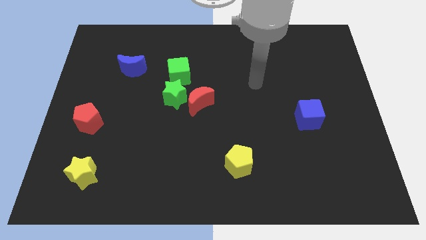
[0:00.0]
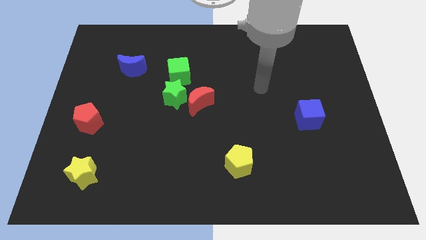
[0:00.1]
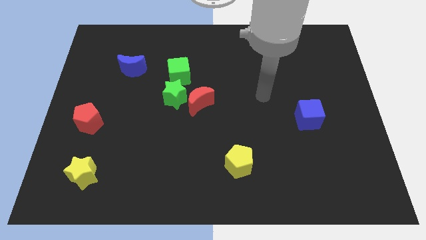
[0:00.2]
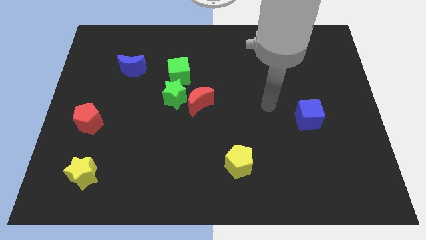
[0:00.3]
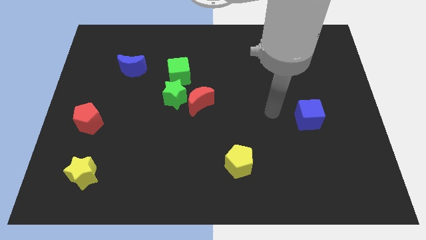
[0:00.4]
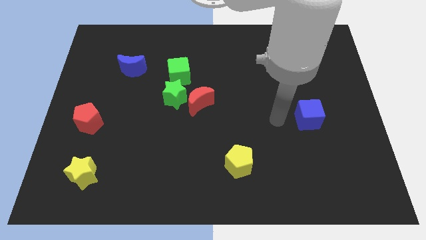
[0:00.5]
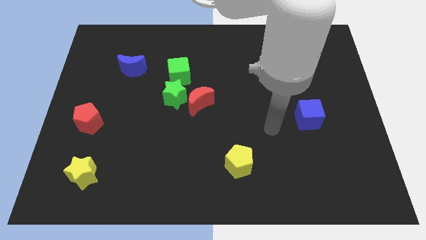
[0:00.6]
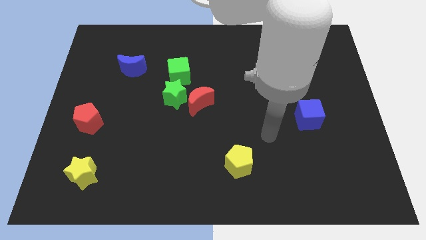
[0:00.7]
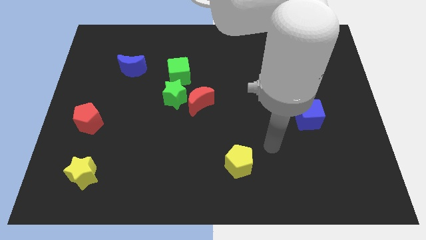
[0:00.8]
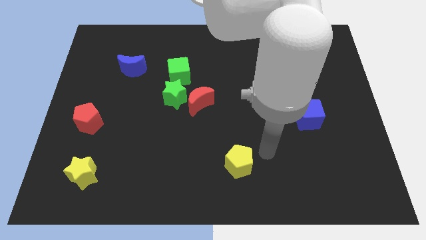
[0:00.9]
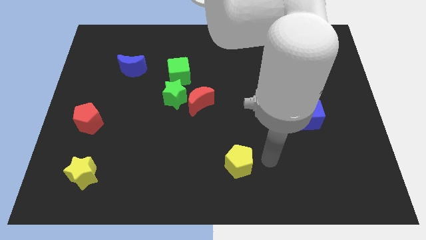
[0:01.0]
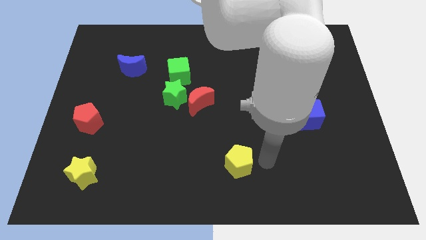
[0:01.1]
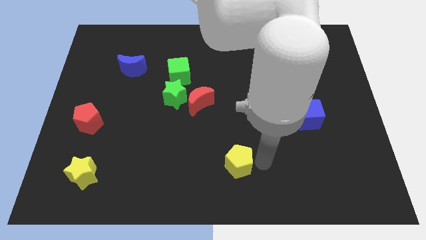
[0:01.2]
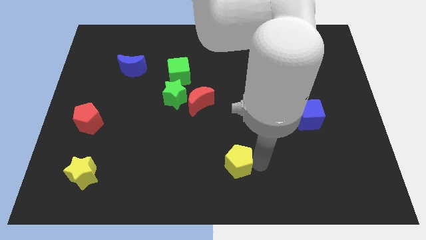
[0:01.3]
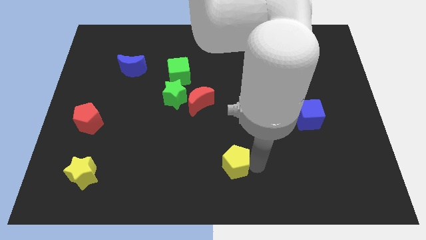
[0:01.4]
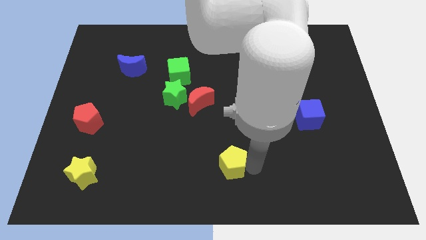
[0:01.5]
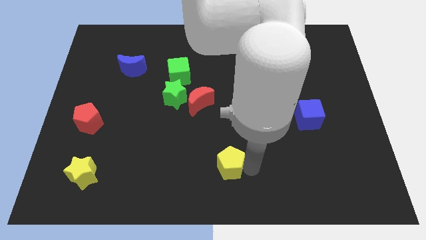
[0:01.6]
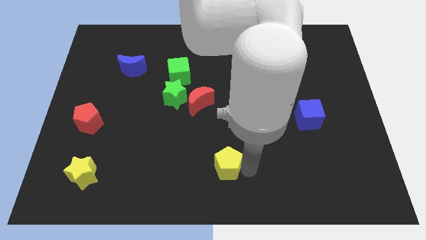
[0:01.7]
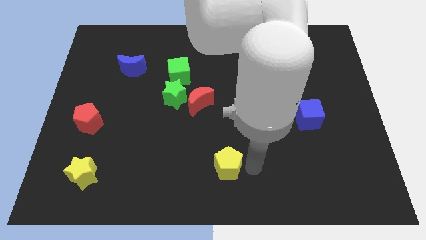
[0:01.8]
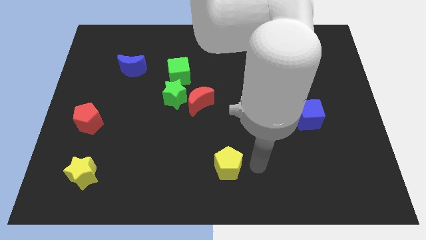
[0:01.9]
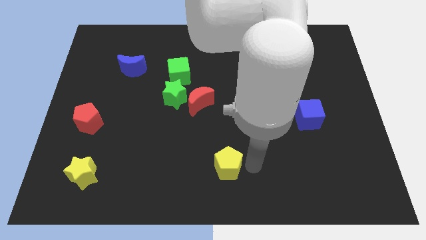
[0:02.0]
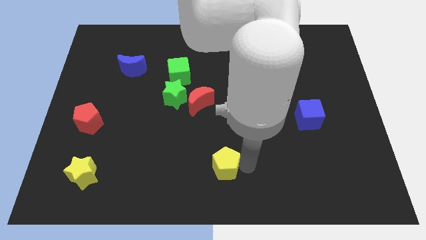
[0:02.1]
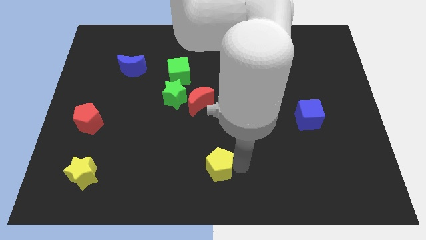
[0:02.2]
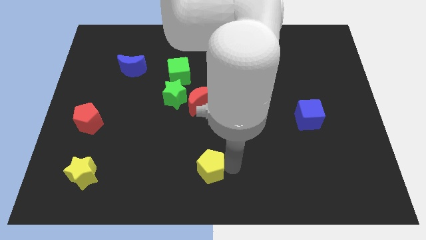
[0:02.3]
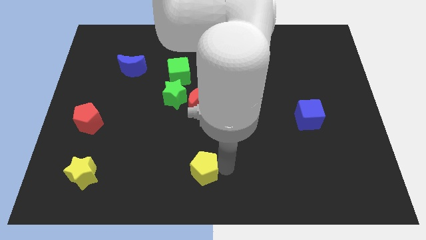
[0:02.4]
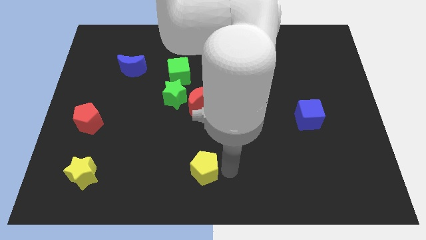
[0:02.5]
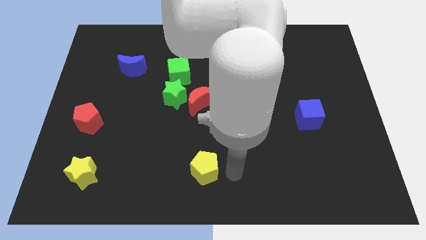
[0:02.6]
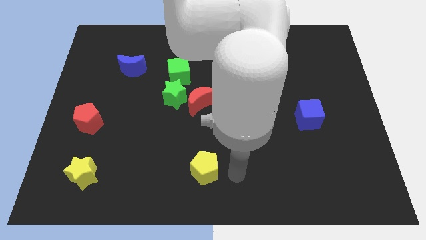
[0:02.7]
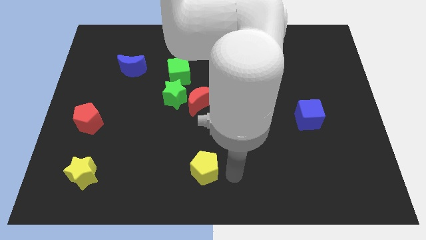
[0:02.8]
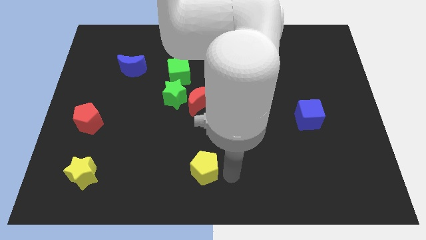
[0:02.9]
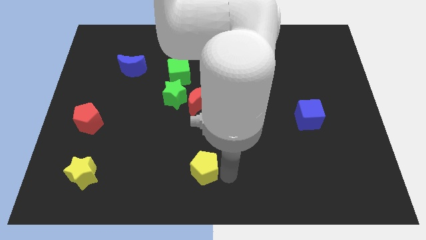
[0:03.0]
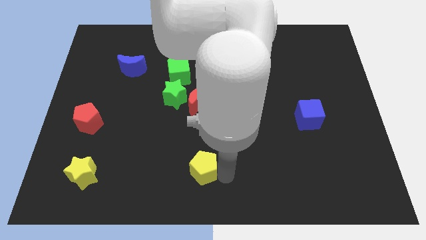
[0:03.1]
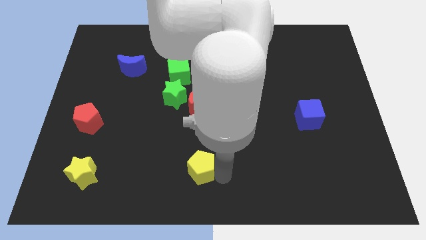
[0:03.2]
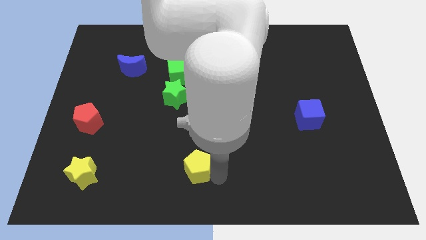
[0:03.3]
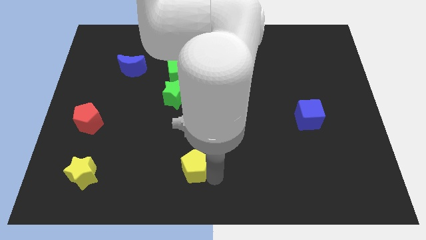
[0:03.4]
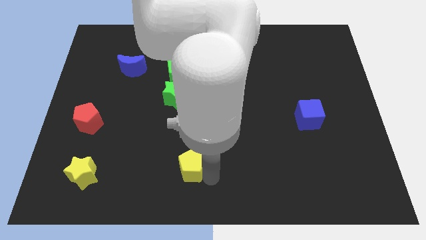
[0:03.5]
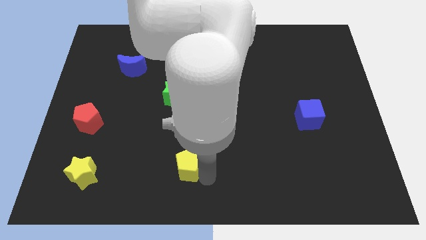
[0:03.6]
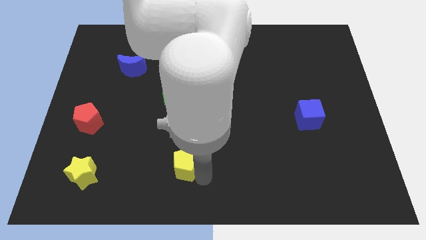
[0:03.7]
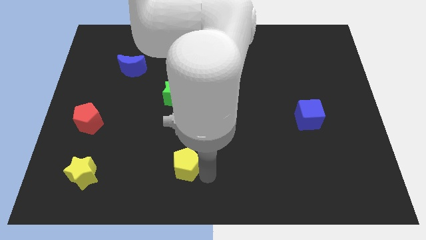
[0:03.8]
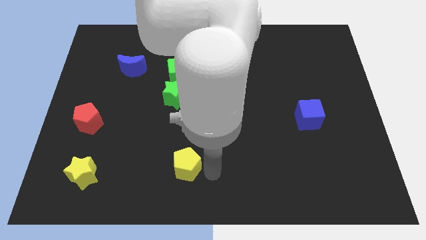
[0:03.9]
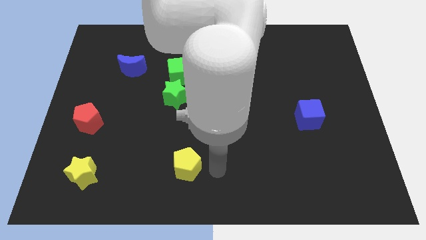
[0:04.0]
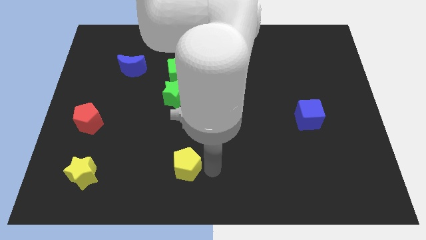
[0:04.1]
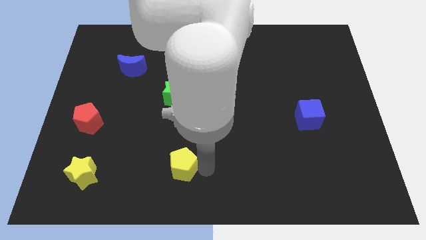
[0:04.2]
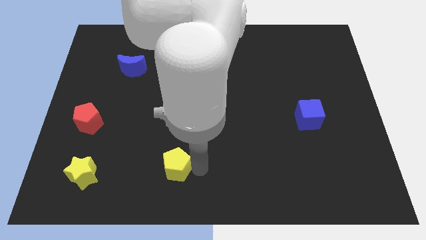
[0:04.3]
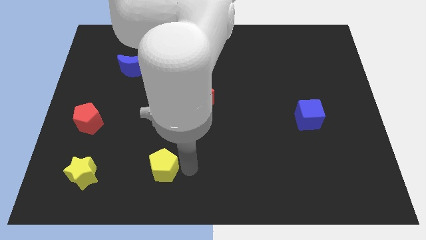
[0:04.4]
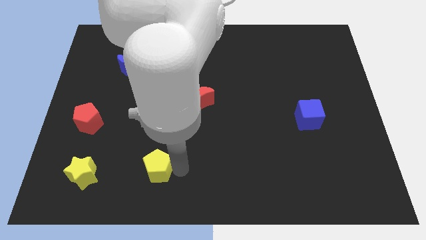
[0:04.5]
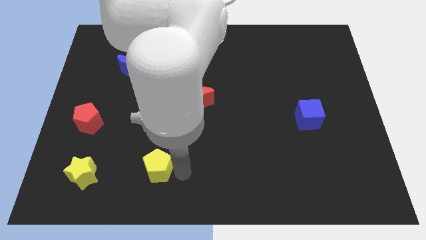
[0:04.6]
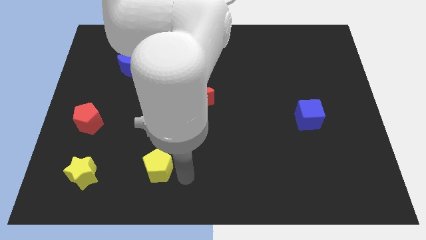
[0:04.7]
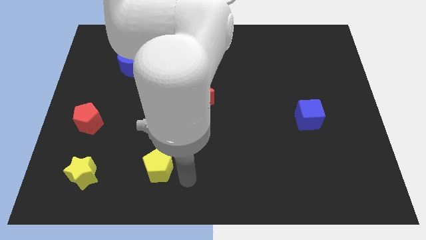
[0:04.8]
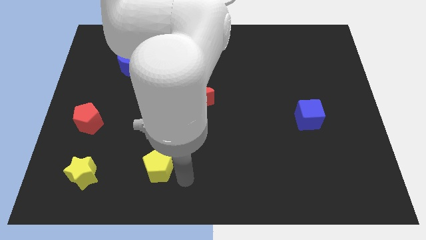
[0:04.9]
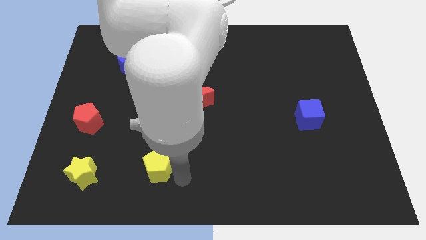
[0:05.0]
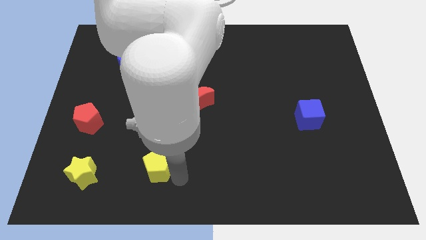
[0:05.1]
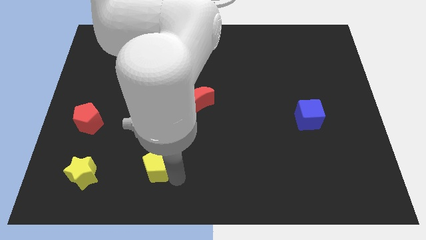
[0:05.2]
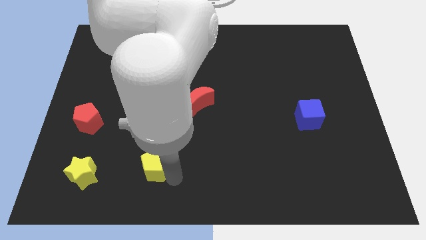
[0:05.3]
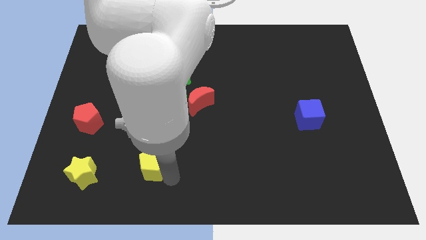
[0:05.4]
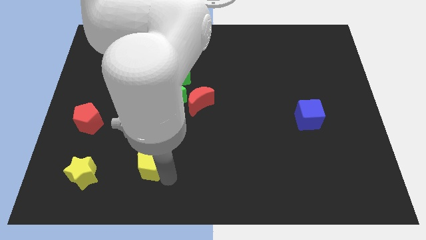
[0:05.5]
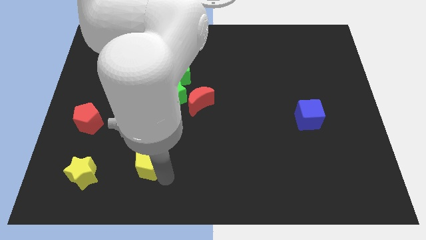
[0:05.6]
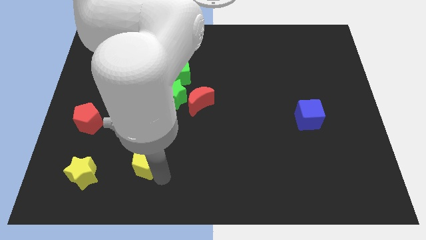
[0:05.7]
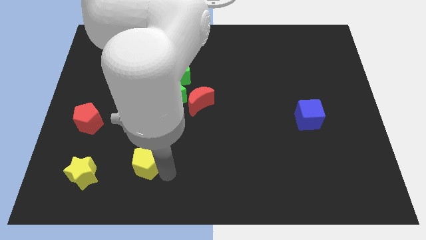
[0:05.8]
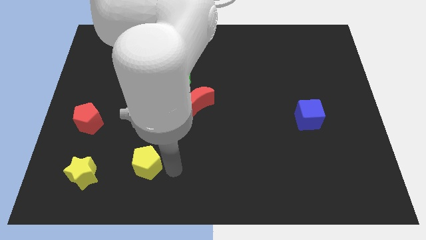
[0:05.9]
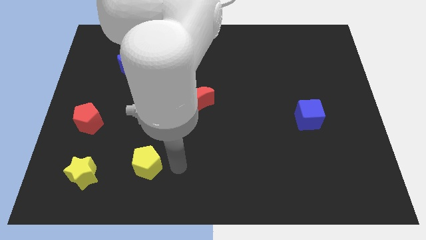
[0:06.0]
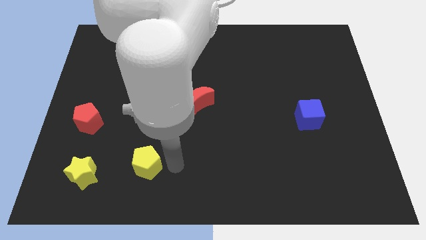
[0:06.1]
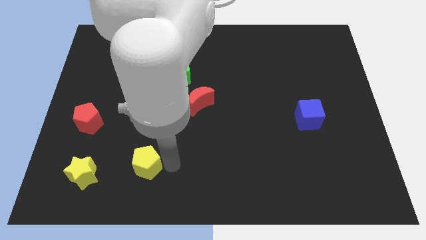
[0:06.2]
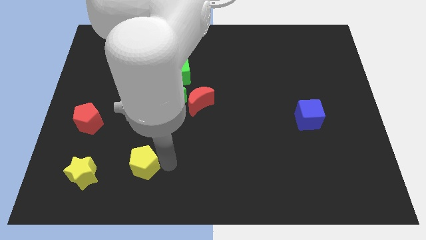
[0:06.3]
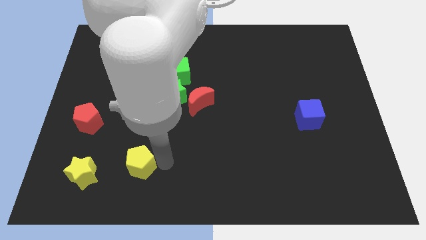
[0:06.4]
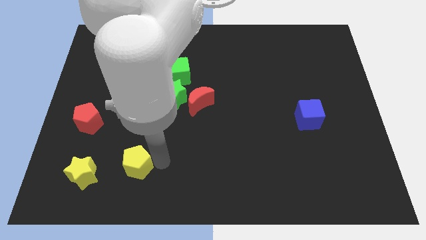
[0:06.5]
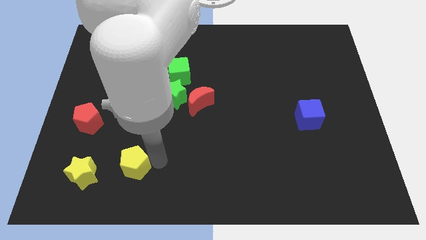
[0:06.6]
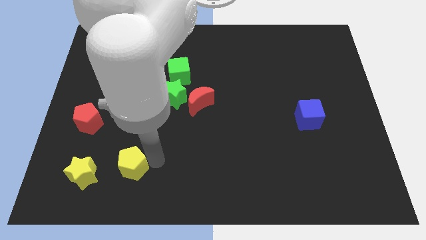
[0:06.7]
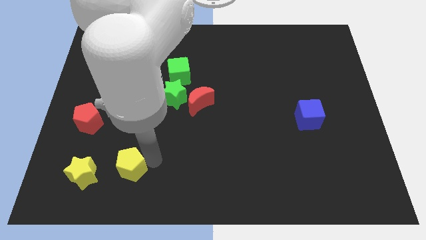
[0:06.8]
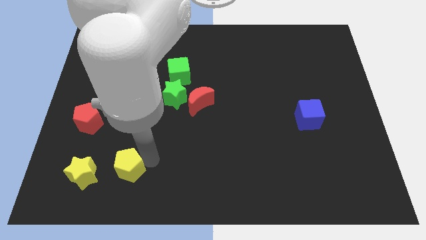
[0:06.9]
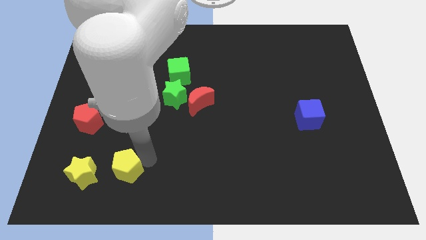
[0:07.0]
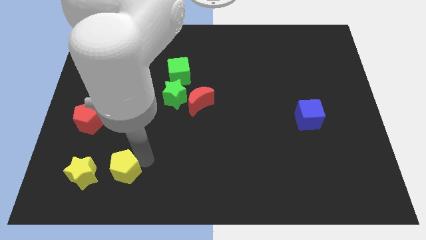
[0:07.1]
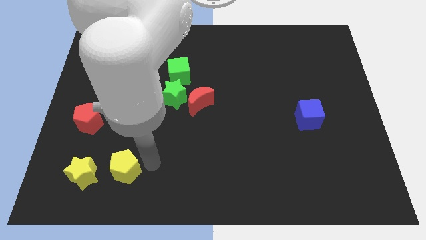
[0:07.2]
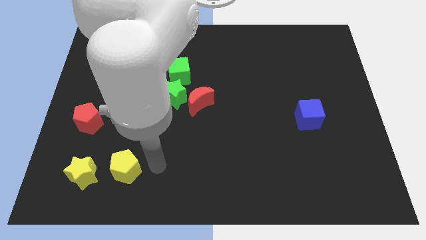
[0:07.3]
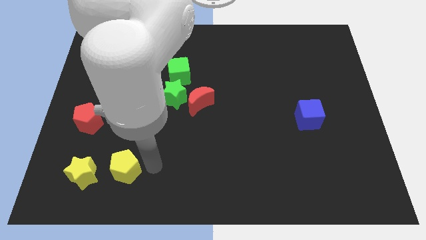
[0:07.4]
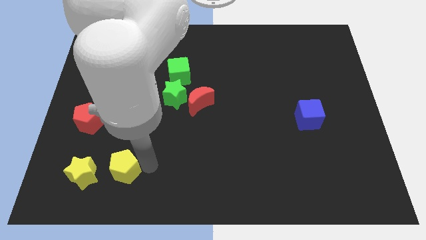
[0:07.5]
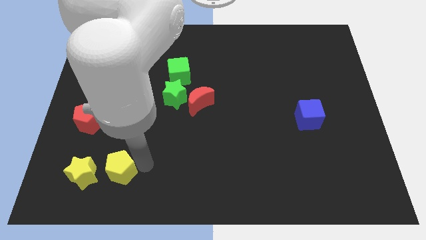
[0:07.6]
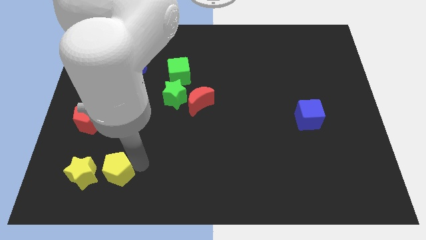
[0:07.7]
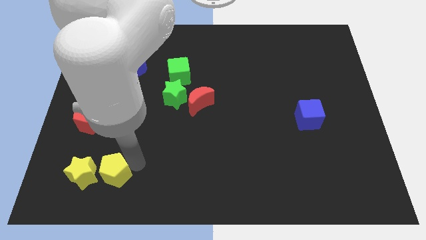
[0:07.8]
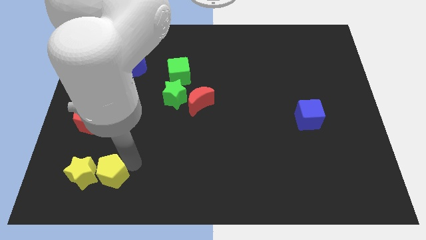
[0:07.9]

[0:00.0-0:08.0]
slide the yellow pentagon next to the yellow star
